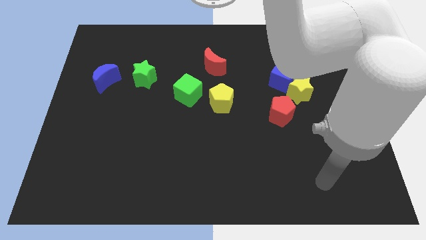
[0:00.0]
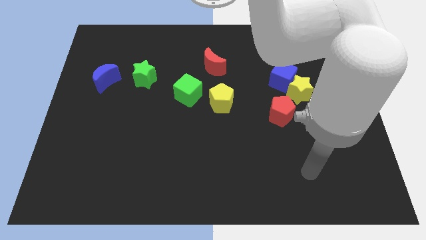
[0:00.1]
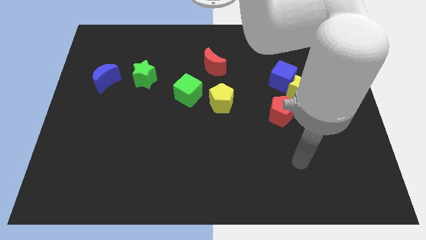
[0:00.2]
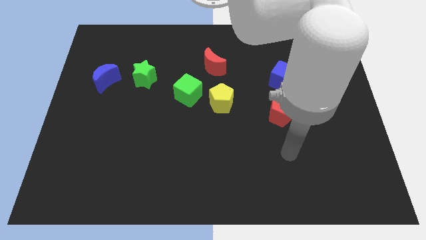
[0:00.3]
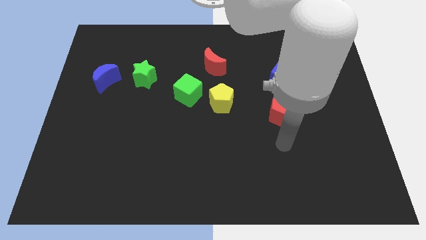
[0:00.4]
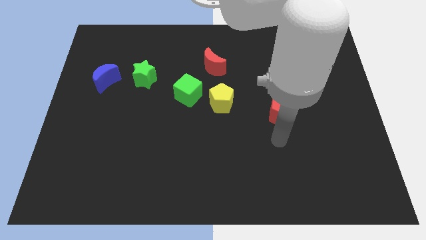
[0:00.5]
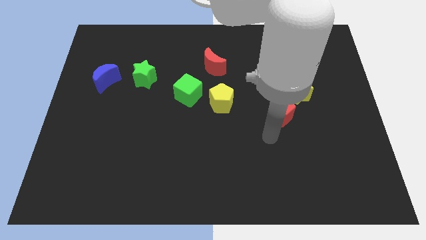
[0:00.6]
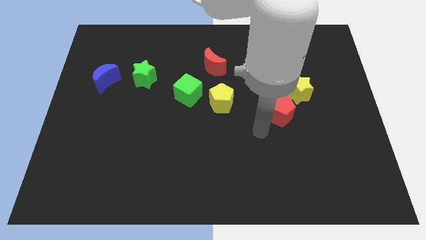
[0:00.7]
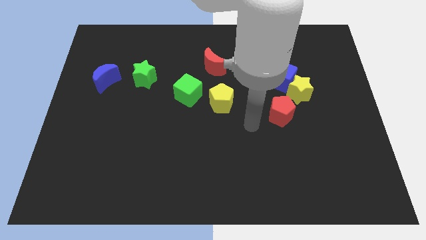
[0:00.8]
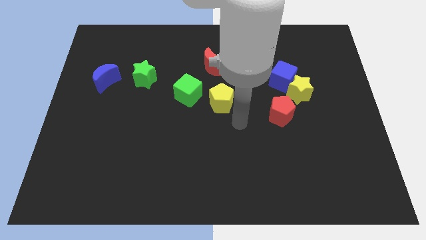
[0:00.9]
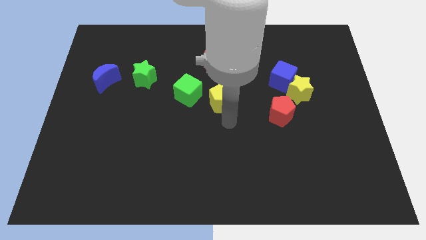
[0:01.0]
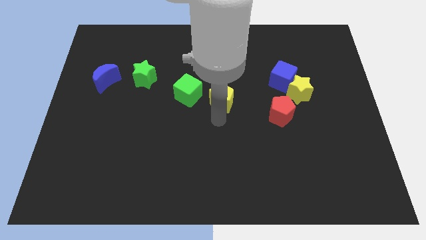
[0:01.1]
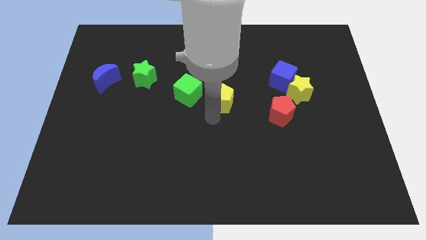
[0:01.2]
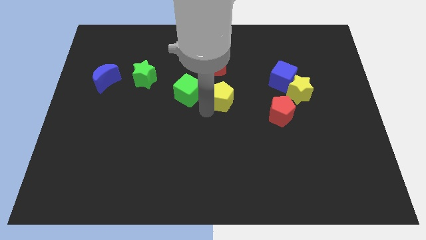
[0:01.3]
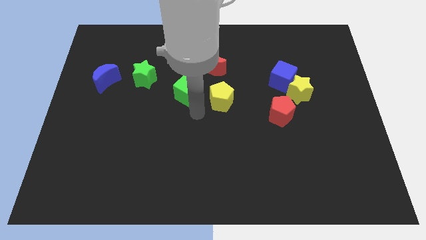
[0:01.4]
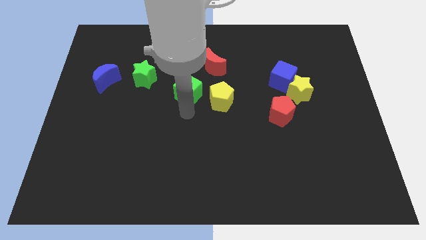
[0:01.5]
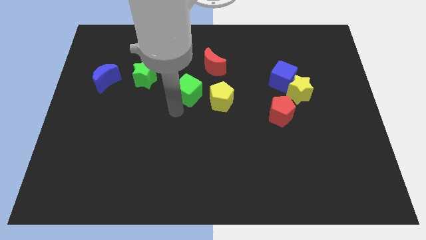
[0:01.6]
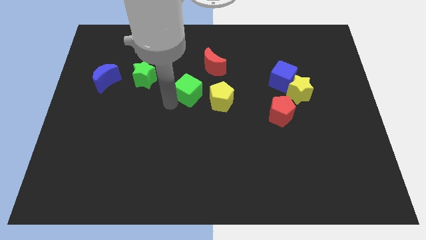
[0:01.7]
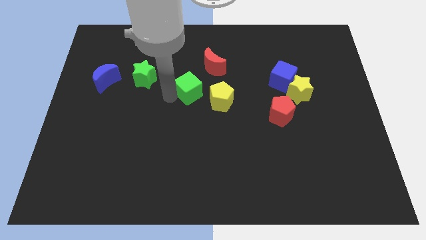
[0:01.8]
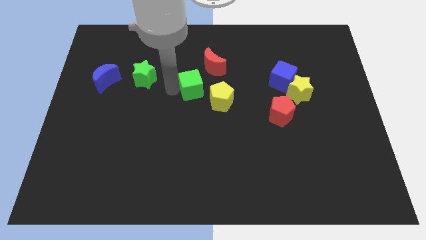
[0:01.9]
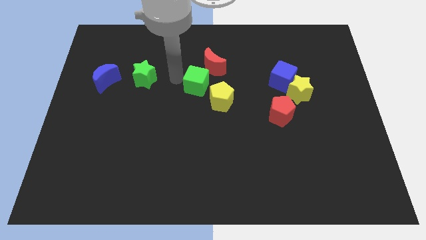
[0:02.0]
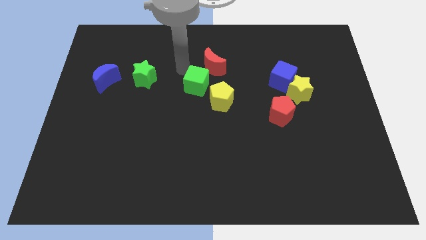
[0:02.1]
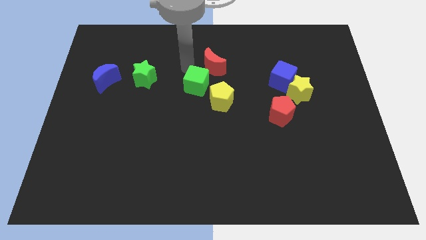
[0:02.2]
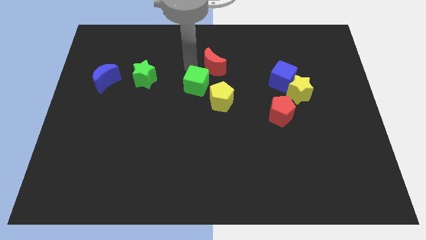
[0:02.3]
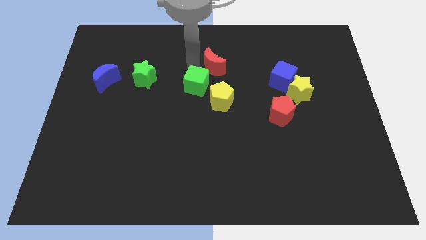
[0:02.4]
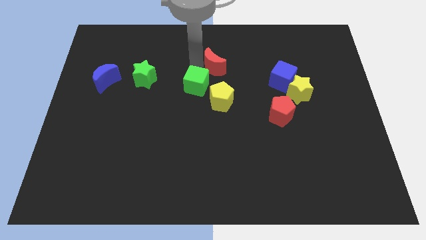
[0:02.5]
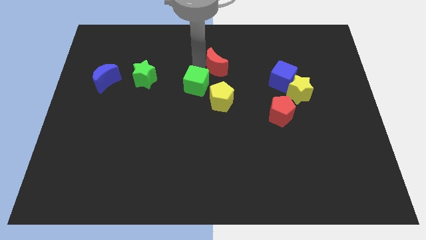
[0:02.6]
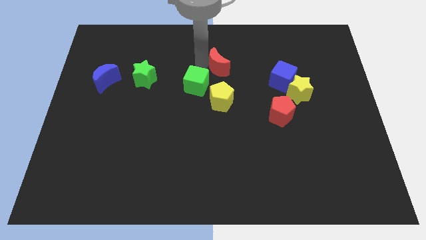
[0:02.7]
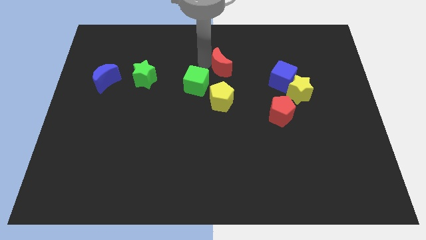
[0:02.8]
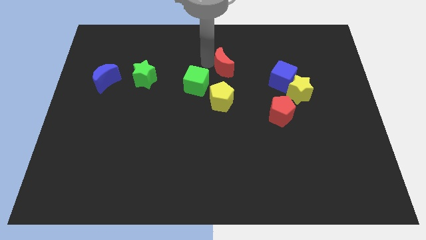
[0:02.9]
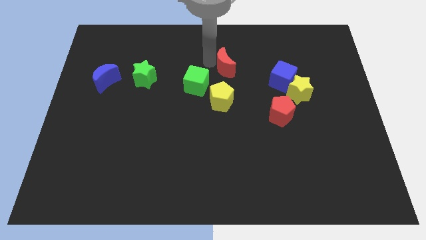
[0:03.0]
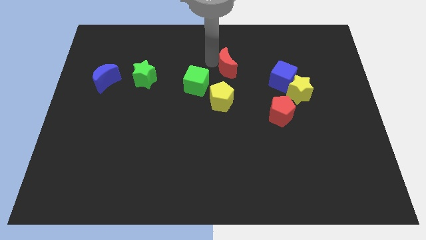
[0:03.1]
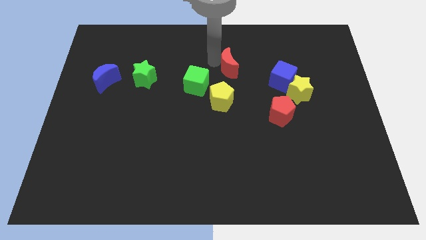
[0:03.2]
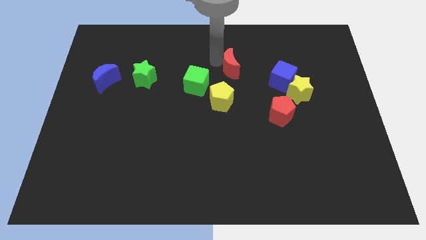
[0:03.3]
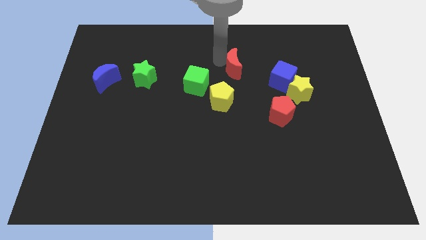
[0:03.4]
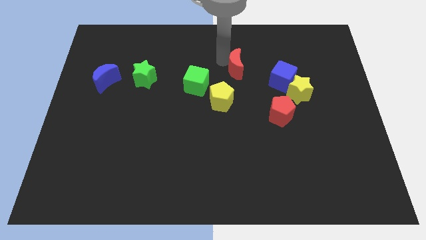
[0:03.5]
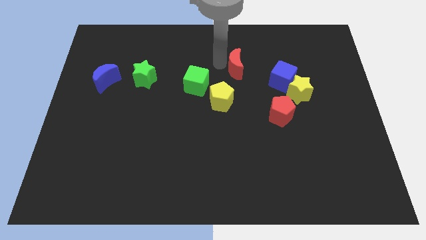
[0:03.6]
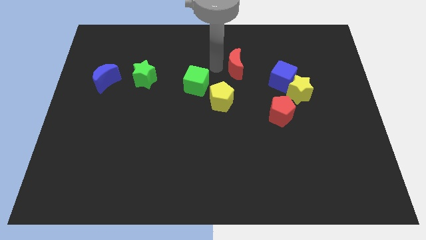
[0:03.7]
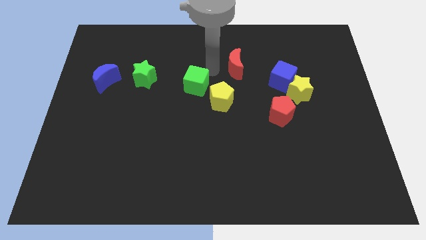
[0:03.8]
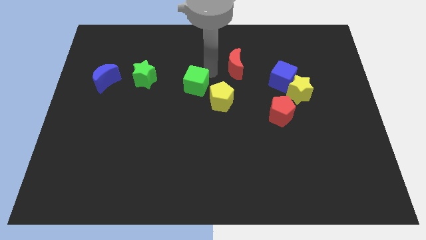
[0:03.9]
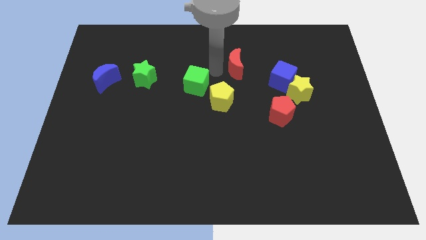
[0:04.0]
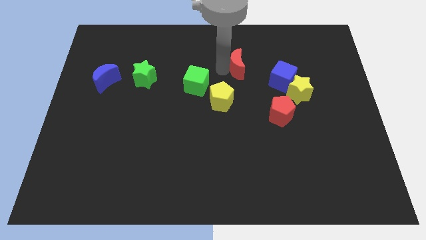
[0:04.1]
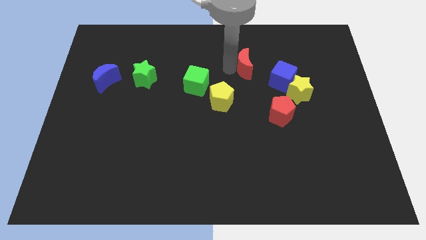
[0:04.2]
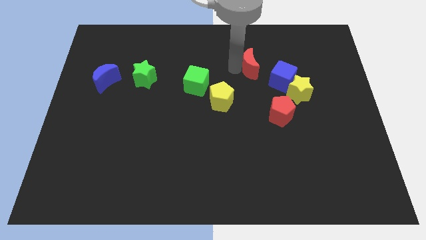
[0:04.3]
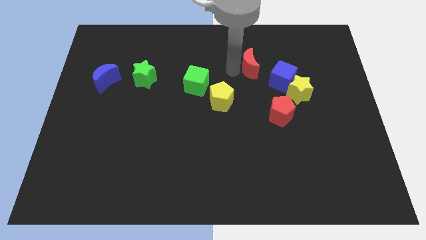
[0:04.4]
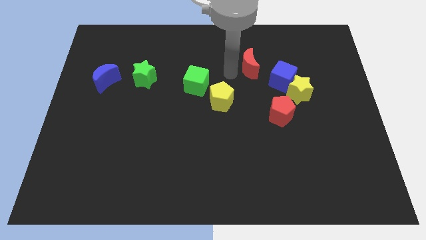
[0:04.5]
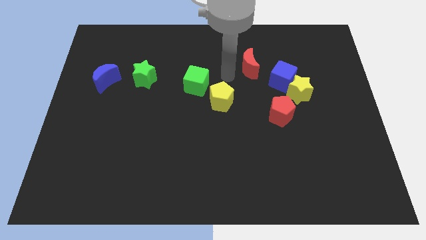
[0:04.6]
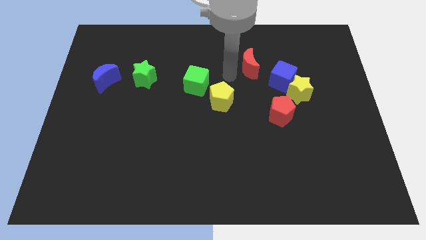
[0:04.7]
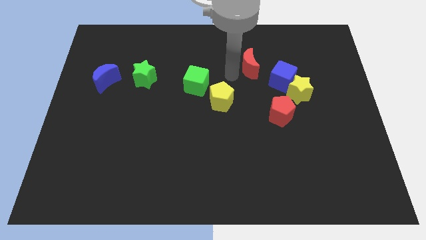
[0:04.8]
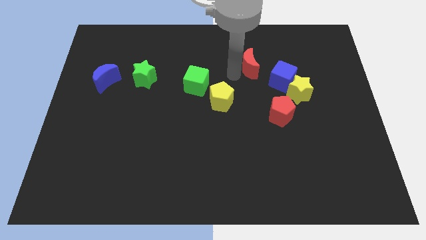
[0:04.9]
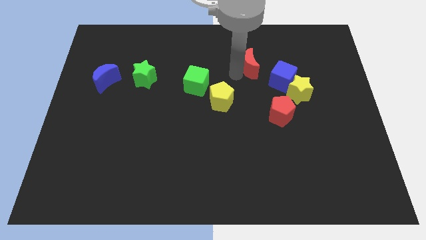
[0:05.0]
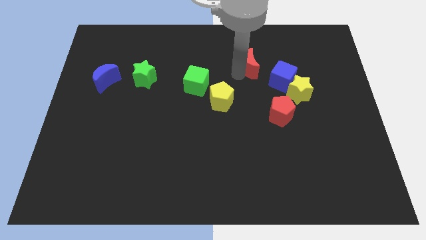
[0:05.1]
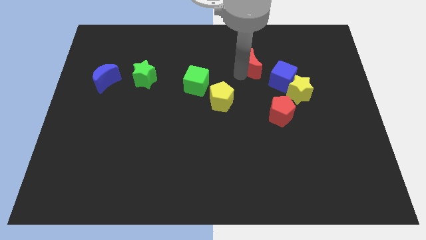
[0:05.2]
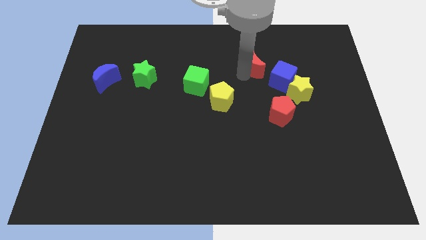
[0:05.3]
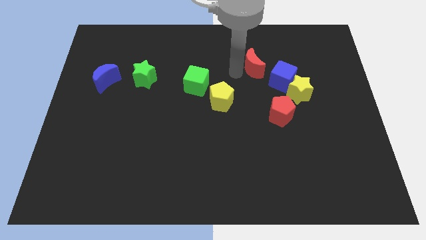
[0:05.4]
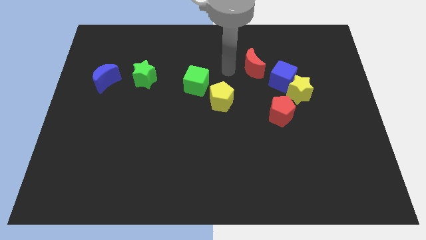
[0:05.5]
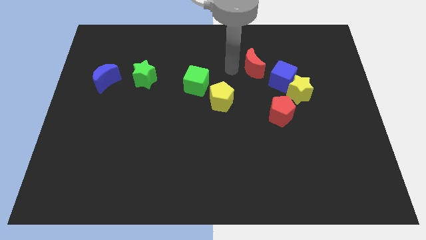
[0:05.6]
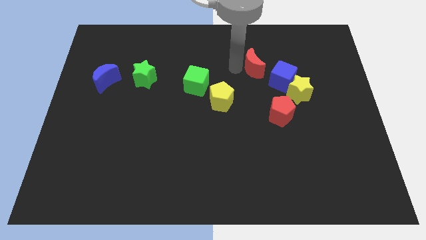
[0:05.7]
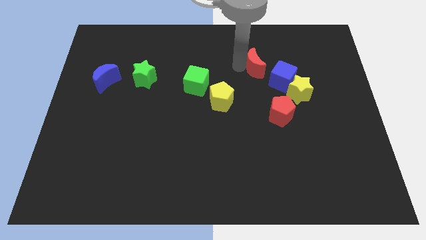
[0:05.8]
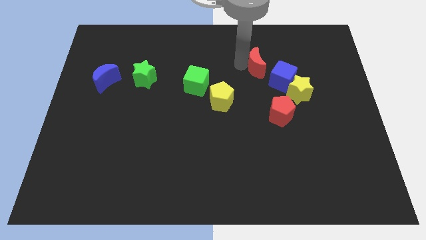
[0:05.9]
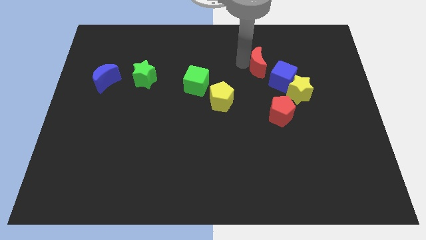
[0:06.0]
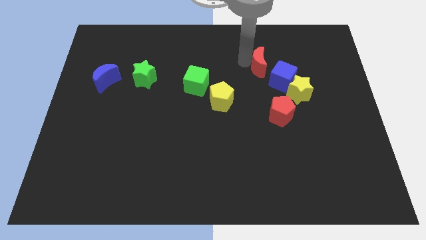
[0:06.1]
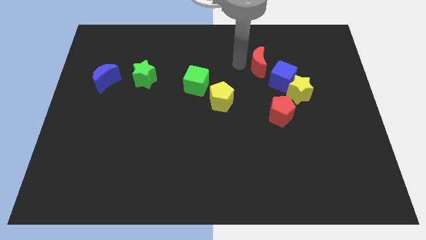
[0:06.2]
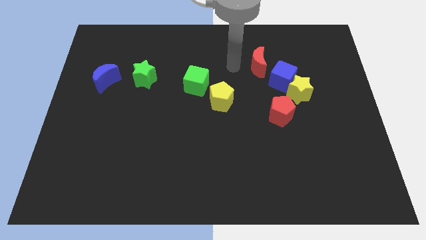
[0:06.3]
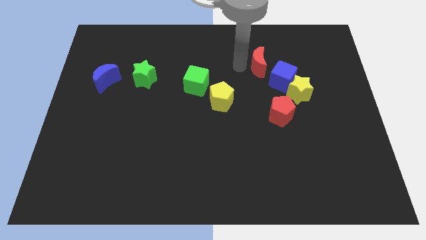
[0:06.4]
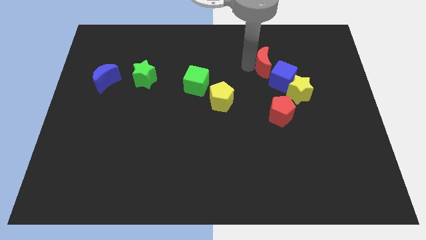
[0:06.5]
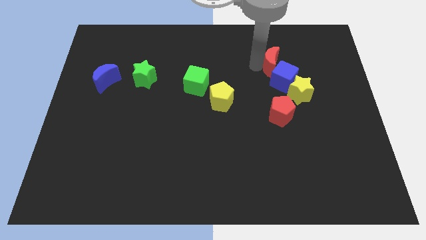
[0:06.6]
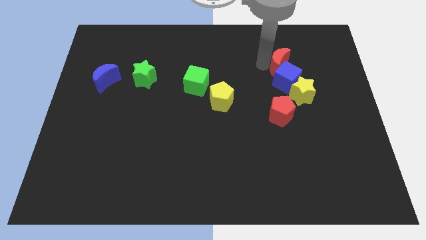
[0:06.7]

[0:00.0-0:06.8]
slide the red moon to the top of the yellow star

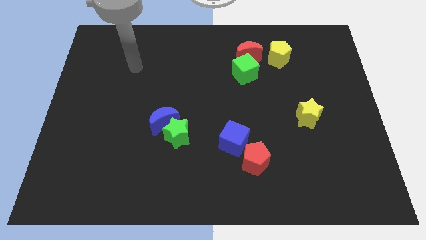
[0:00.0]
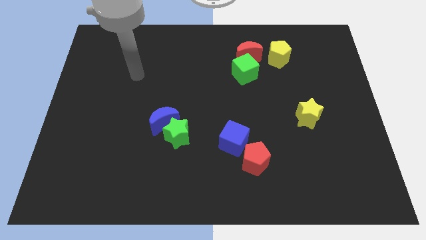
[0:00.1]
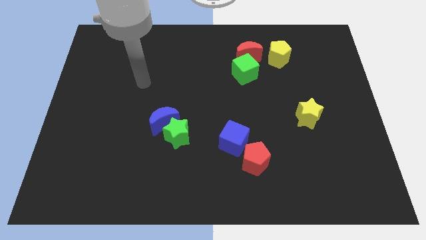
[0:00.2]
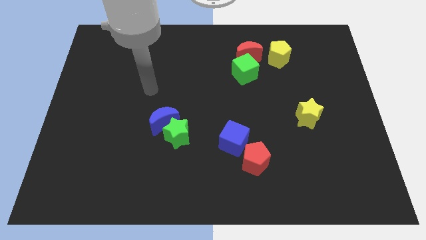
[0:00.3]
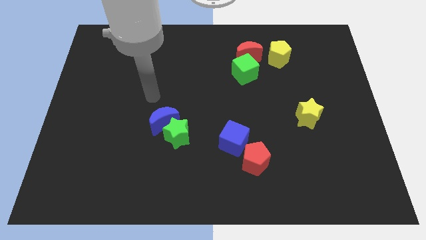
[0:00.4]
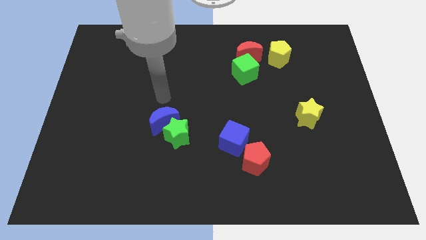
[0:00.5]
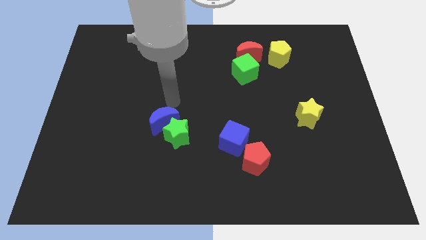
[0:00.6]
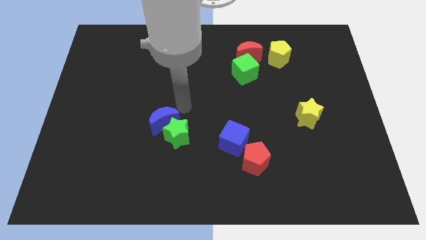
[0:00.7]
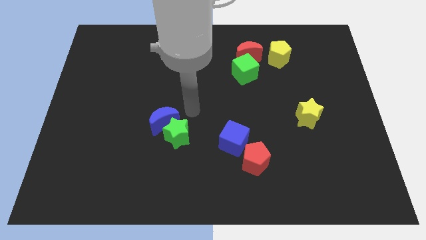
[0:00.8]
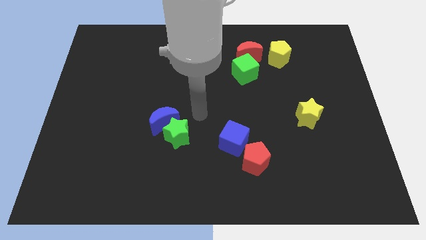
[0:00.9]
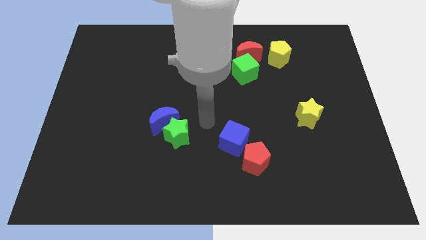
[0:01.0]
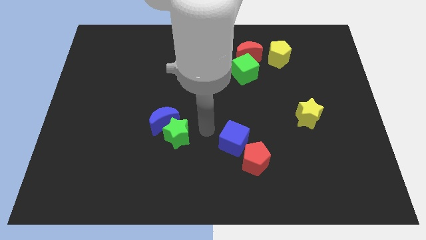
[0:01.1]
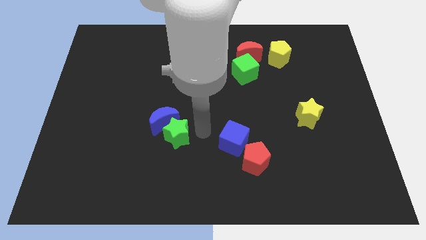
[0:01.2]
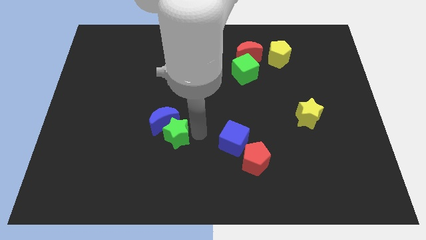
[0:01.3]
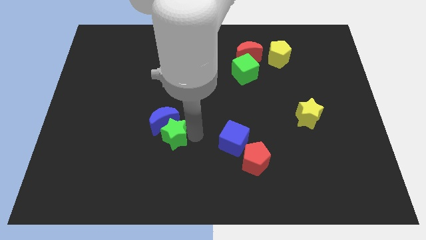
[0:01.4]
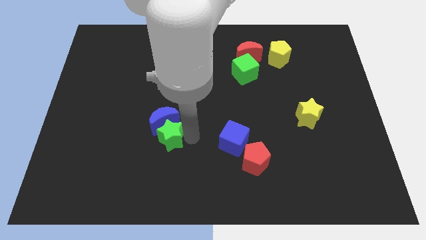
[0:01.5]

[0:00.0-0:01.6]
push the green star to the bottom left of the blue moon
